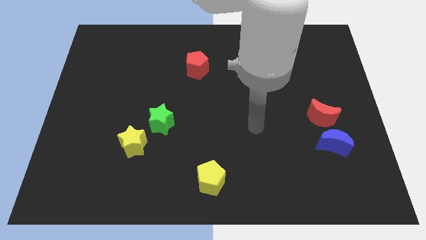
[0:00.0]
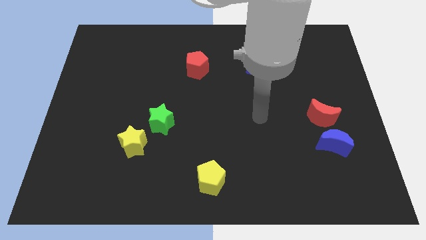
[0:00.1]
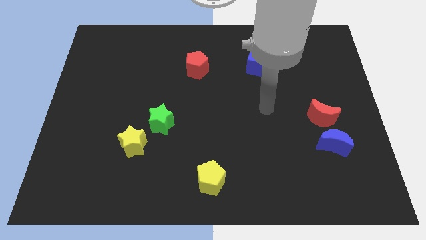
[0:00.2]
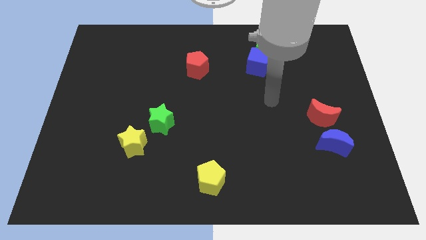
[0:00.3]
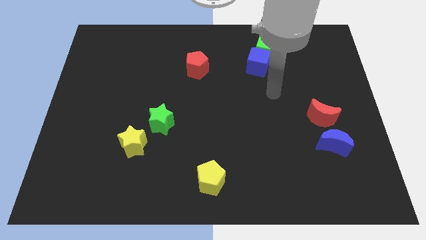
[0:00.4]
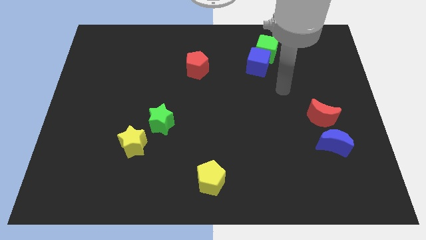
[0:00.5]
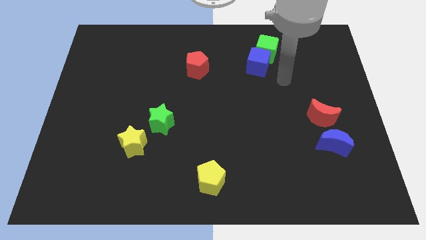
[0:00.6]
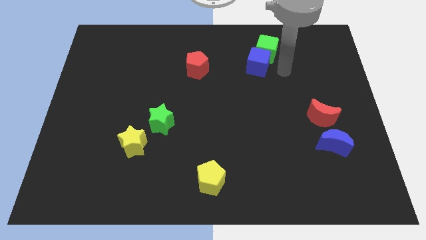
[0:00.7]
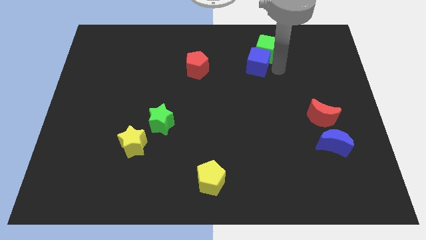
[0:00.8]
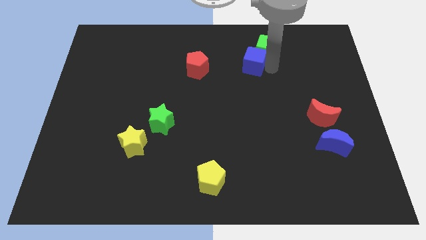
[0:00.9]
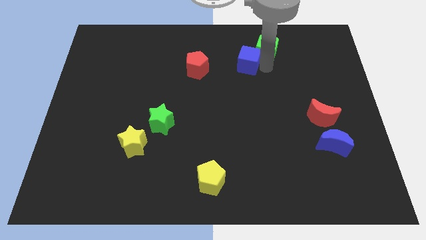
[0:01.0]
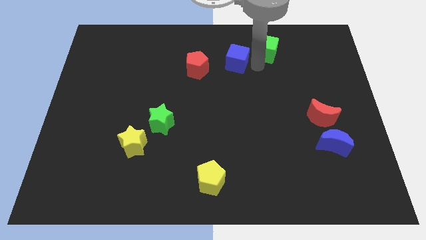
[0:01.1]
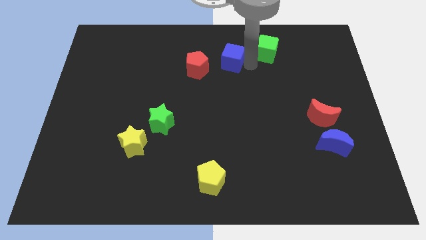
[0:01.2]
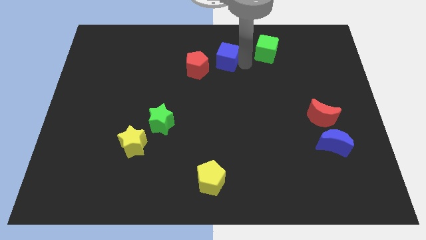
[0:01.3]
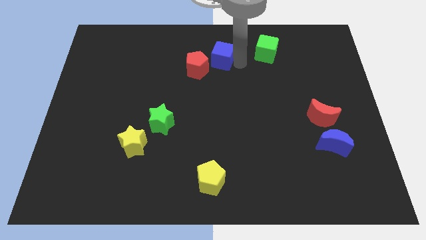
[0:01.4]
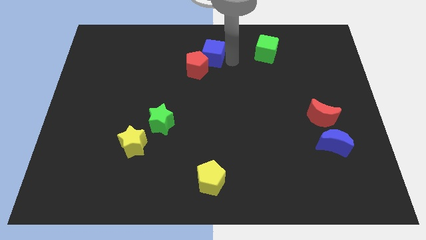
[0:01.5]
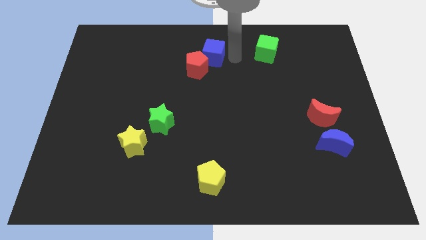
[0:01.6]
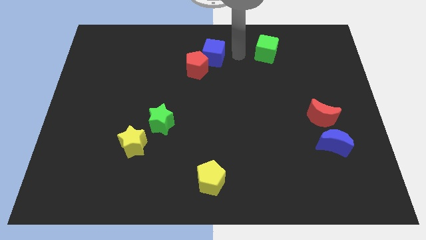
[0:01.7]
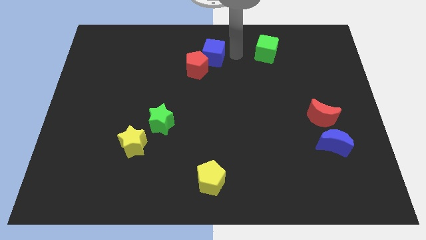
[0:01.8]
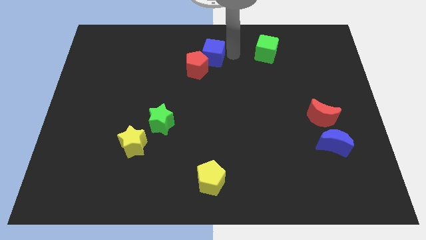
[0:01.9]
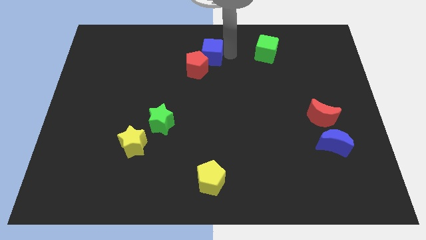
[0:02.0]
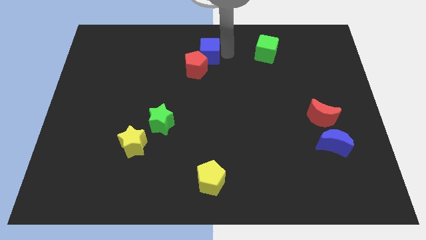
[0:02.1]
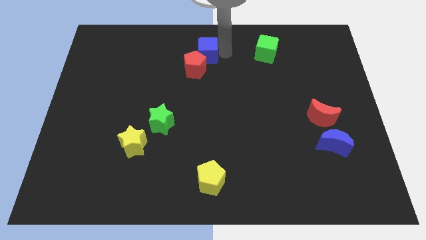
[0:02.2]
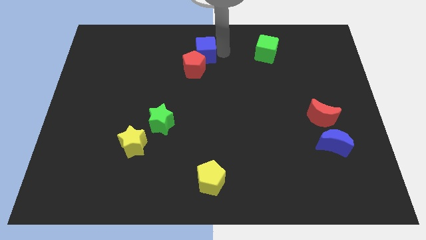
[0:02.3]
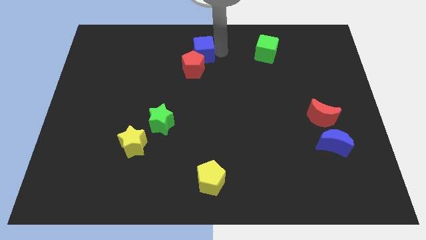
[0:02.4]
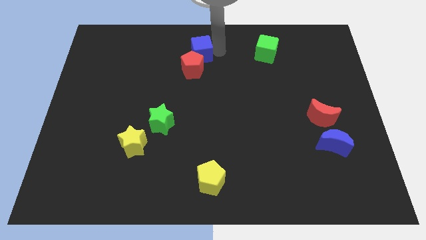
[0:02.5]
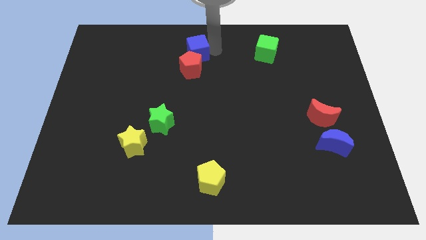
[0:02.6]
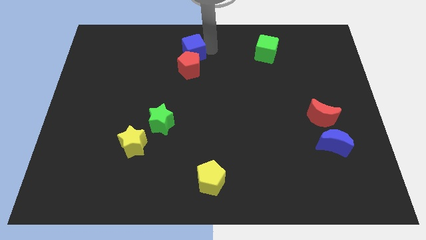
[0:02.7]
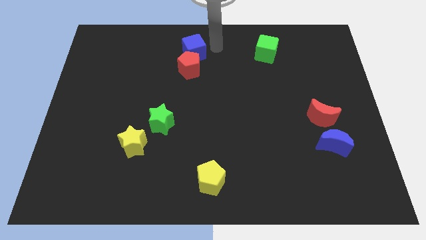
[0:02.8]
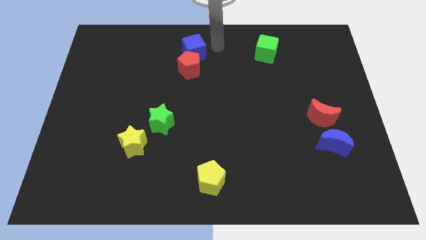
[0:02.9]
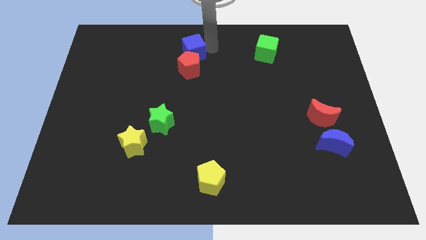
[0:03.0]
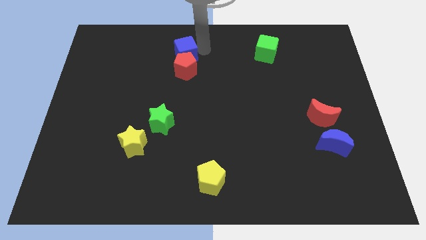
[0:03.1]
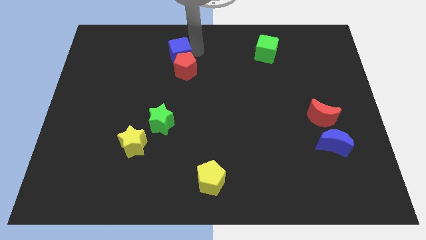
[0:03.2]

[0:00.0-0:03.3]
move the blue cube left

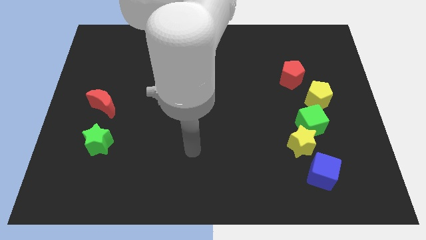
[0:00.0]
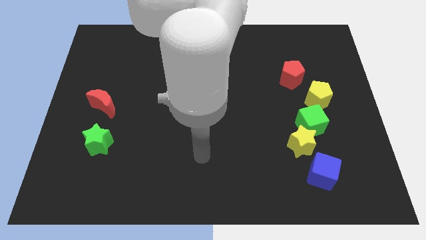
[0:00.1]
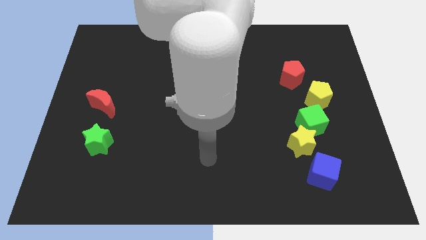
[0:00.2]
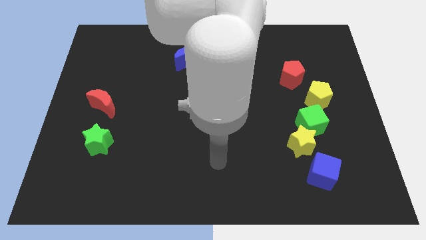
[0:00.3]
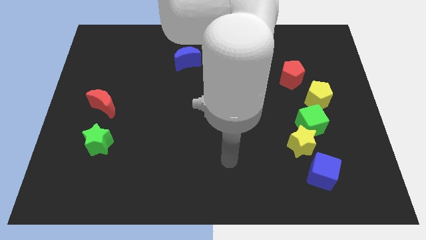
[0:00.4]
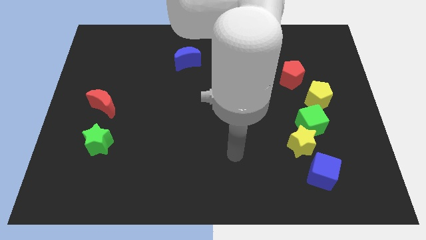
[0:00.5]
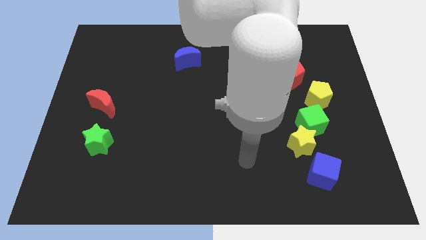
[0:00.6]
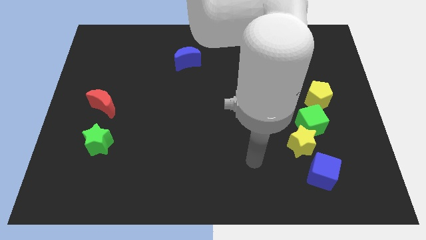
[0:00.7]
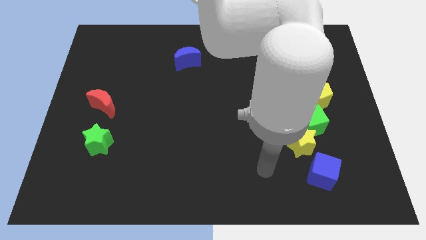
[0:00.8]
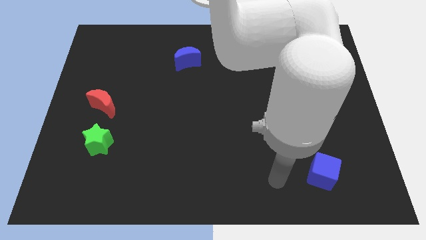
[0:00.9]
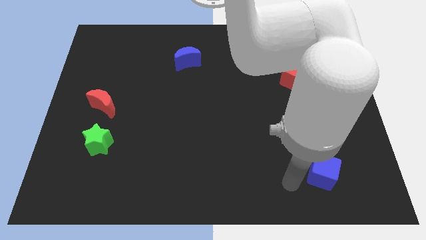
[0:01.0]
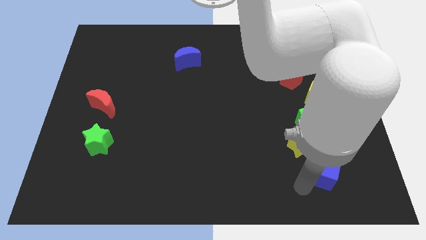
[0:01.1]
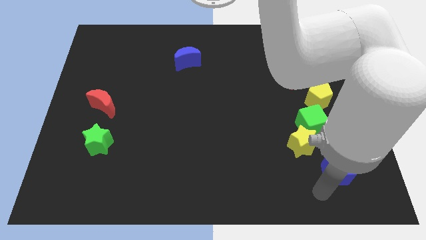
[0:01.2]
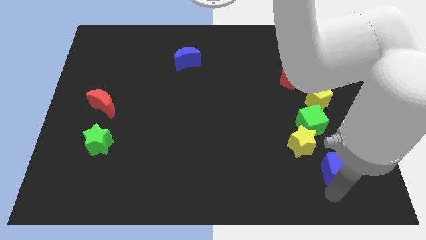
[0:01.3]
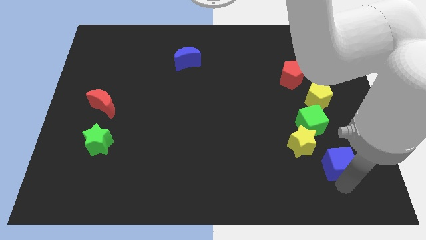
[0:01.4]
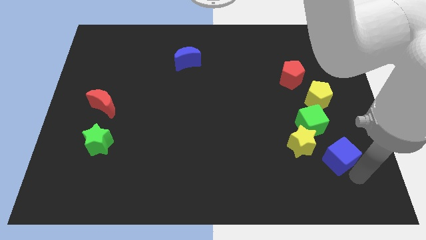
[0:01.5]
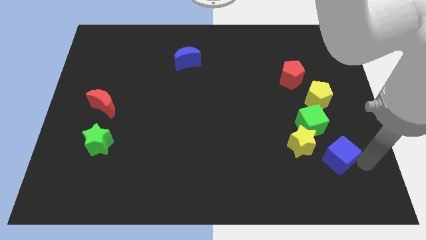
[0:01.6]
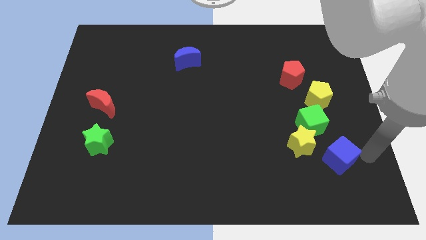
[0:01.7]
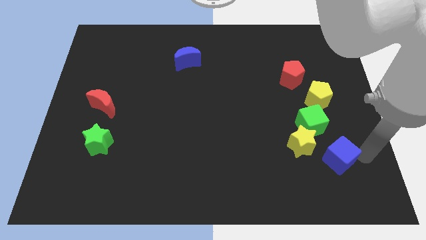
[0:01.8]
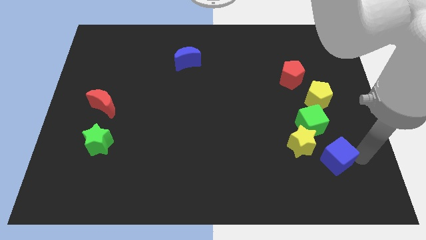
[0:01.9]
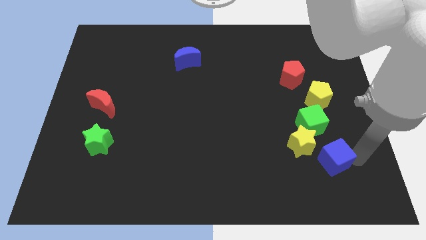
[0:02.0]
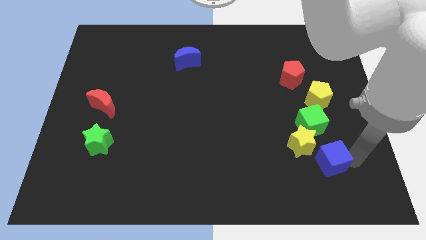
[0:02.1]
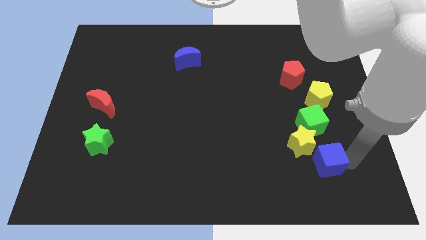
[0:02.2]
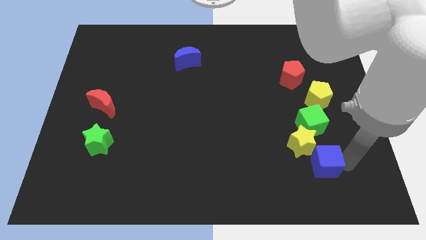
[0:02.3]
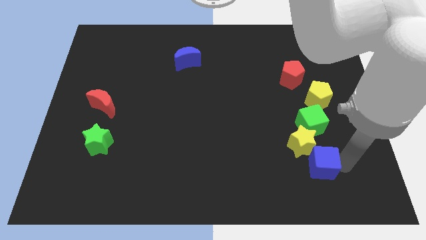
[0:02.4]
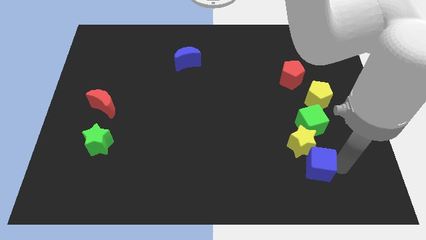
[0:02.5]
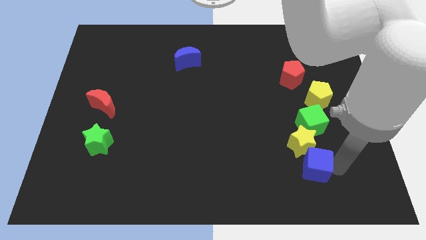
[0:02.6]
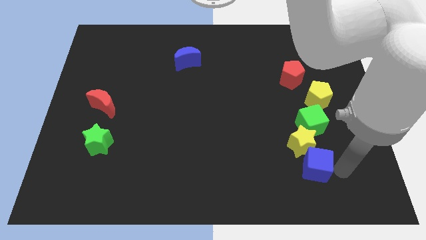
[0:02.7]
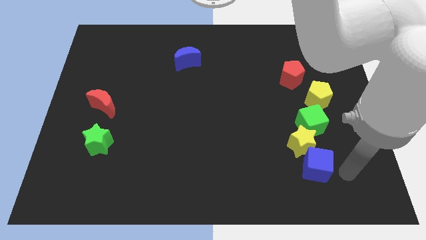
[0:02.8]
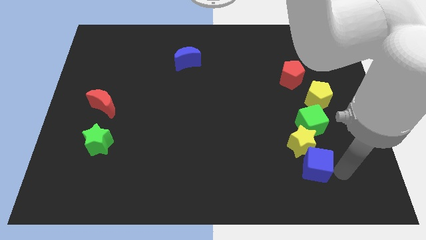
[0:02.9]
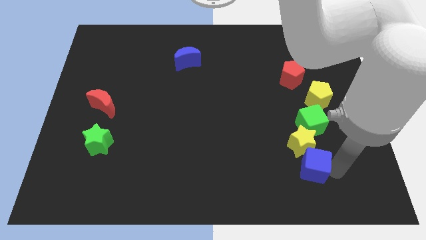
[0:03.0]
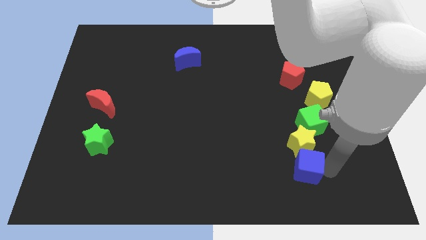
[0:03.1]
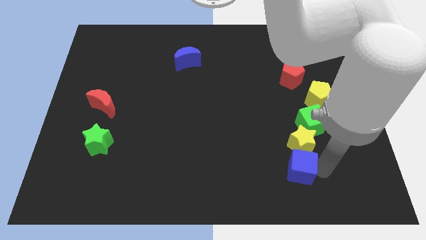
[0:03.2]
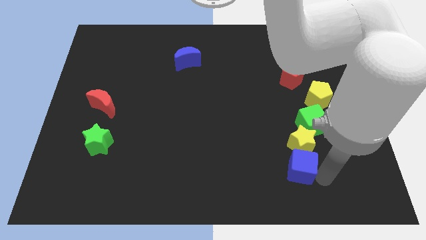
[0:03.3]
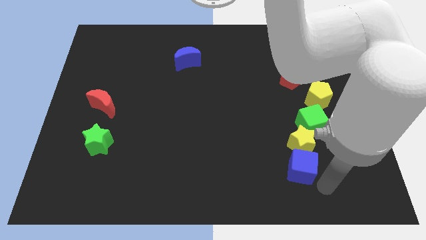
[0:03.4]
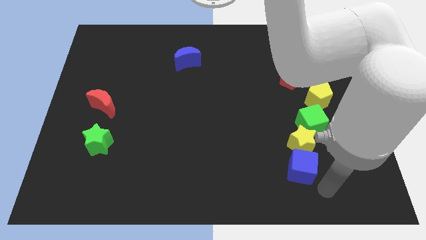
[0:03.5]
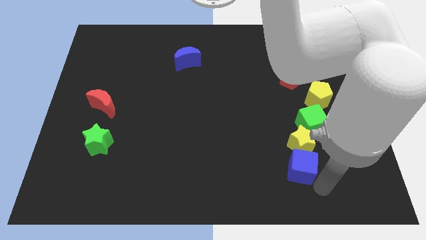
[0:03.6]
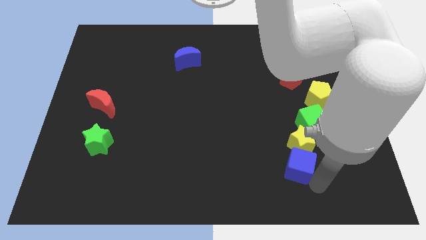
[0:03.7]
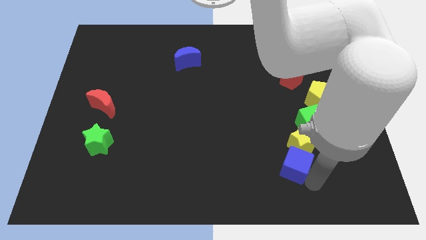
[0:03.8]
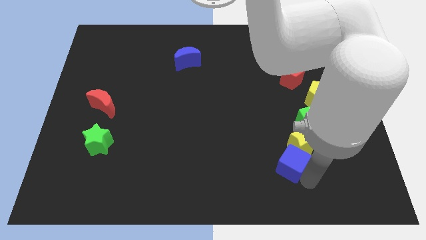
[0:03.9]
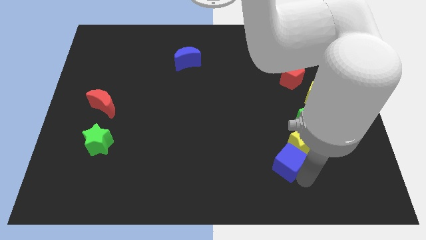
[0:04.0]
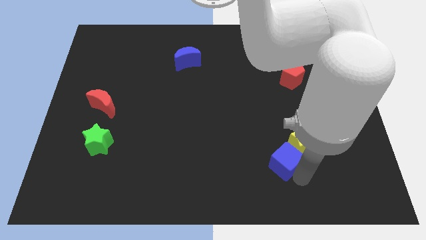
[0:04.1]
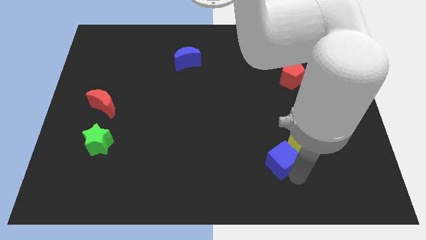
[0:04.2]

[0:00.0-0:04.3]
move the blue cube somewhat up and then left

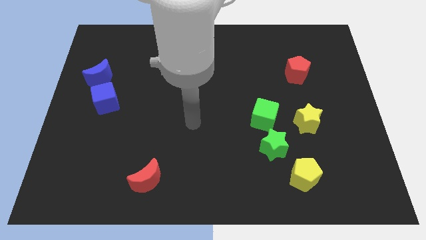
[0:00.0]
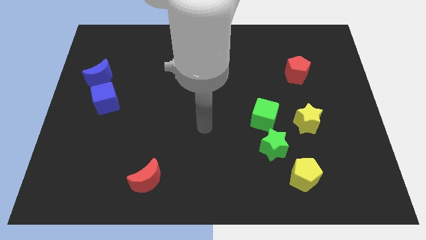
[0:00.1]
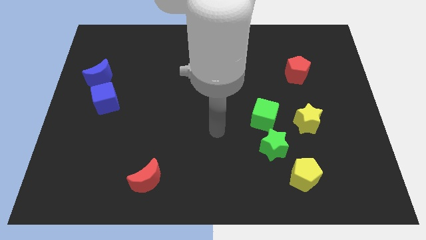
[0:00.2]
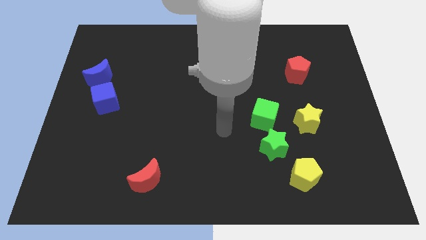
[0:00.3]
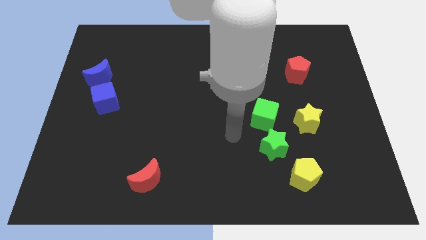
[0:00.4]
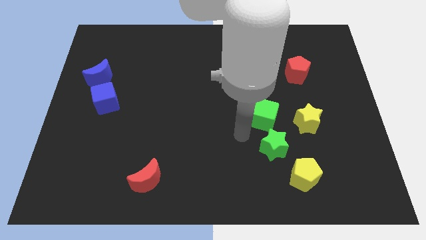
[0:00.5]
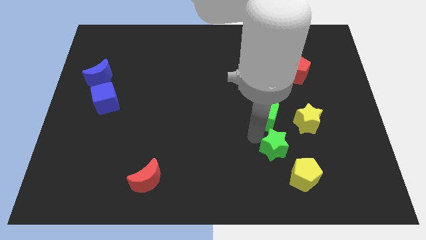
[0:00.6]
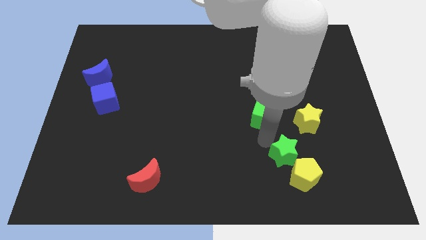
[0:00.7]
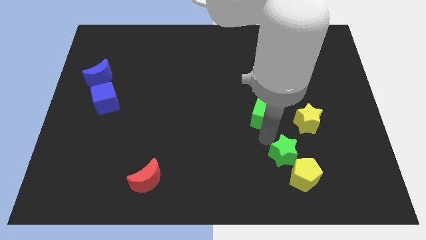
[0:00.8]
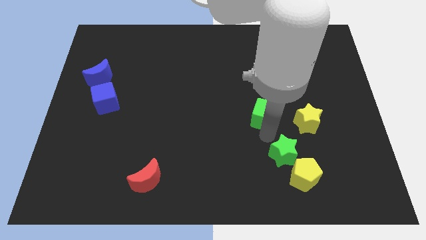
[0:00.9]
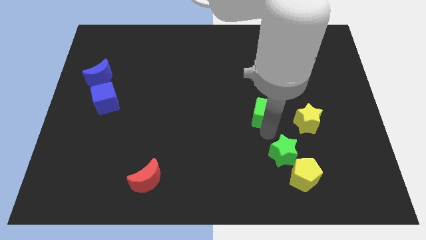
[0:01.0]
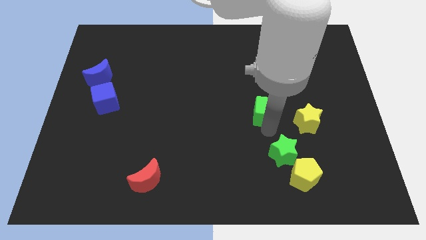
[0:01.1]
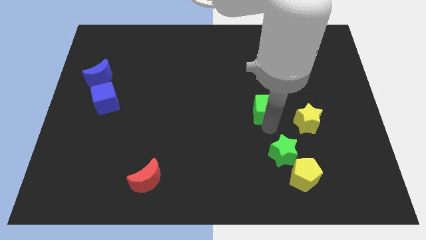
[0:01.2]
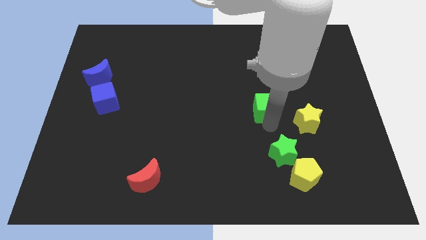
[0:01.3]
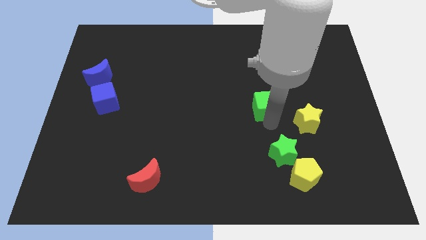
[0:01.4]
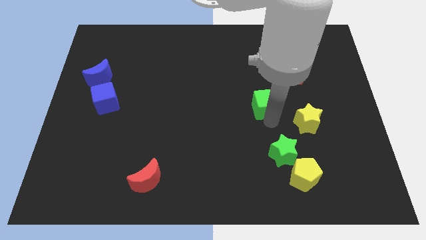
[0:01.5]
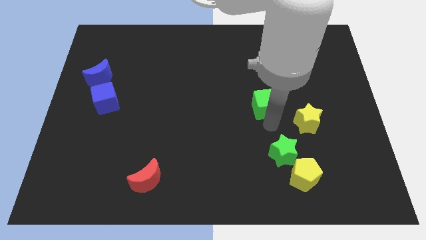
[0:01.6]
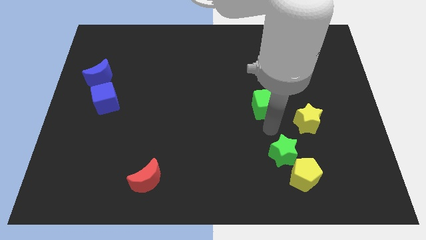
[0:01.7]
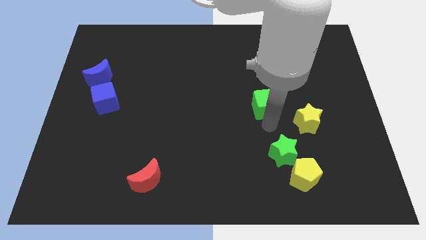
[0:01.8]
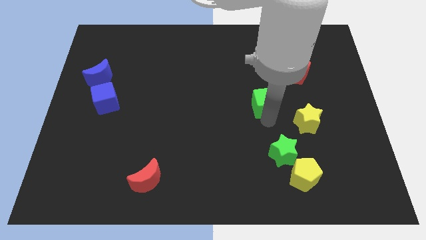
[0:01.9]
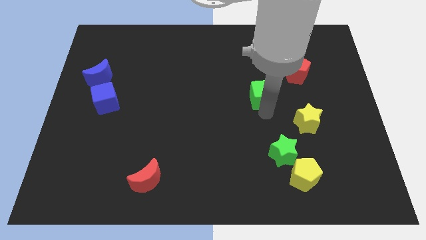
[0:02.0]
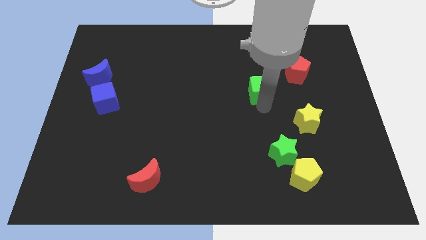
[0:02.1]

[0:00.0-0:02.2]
move the green cube up a little bit
